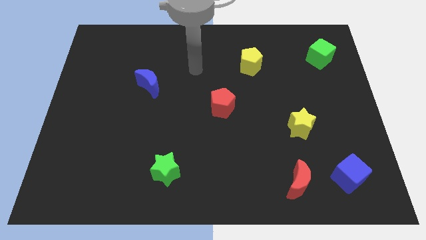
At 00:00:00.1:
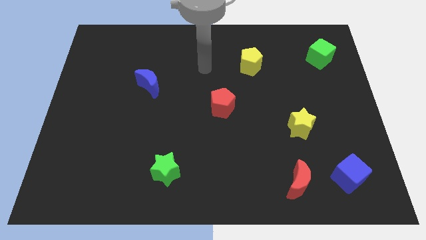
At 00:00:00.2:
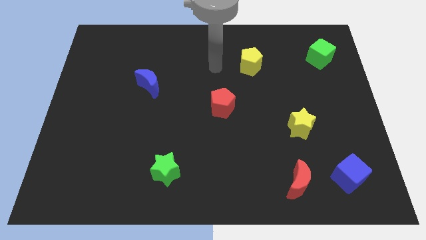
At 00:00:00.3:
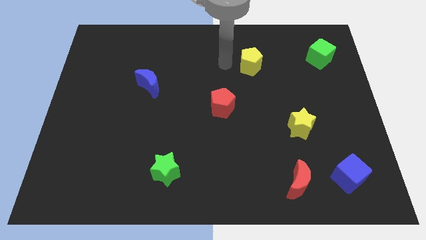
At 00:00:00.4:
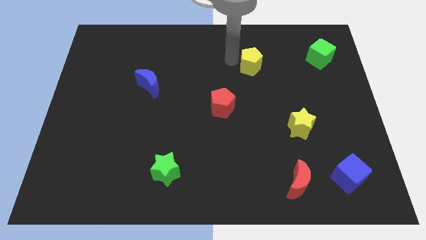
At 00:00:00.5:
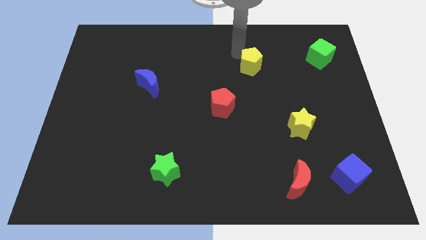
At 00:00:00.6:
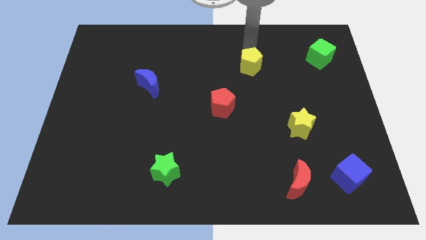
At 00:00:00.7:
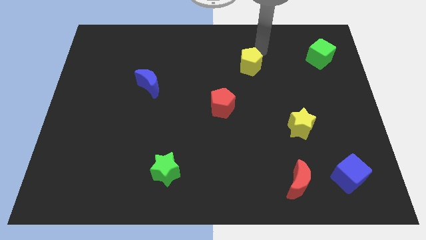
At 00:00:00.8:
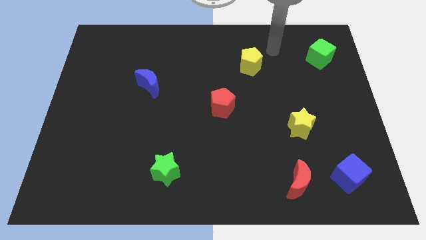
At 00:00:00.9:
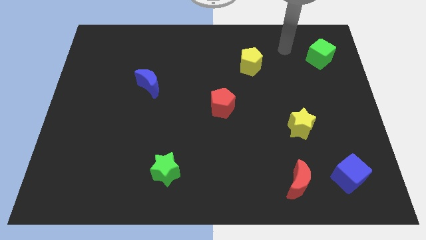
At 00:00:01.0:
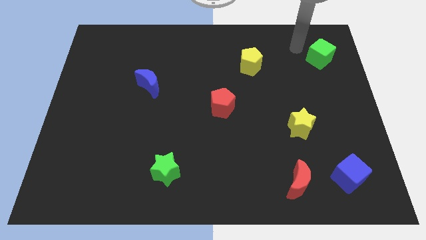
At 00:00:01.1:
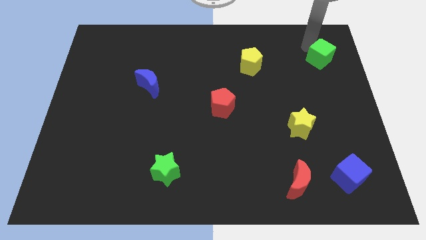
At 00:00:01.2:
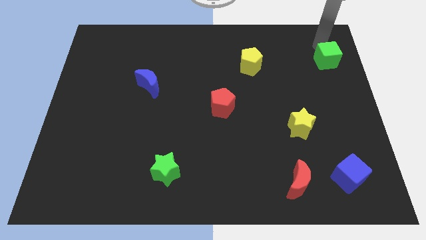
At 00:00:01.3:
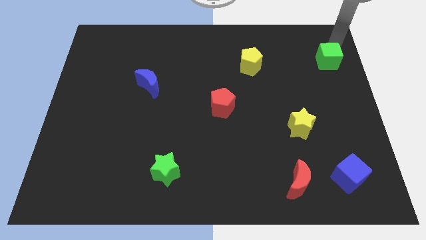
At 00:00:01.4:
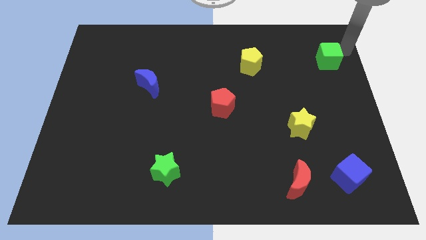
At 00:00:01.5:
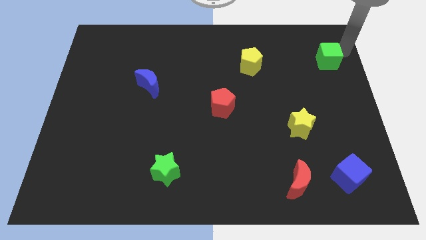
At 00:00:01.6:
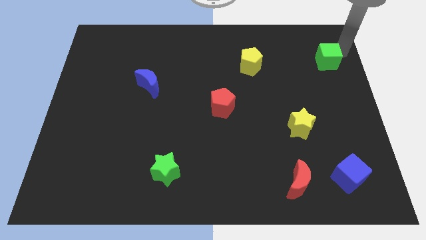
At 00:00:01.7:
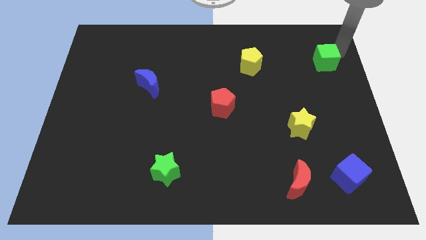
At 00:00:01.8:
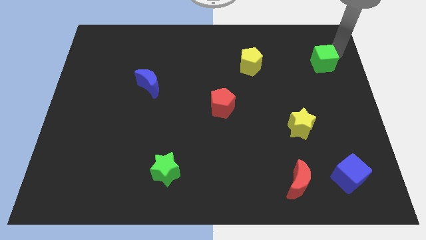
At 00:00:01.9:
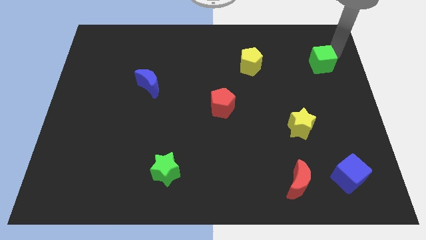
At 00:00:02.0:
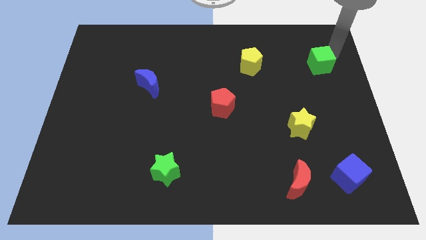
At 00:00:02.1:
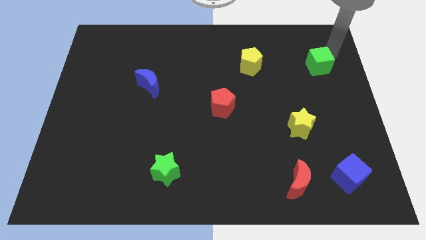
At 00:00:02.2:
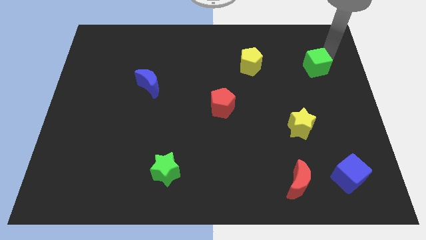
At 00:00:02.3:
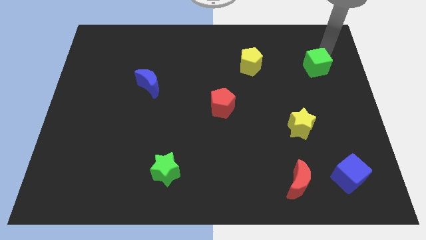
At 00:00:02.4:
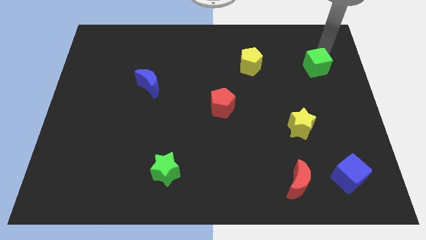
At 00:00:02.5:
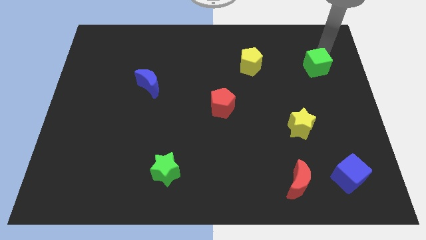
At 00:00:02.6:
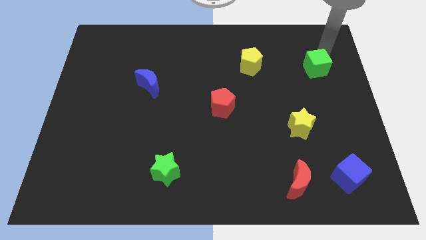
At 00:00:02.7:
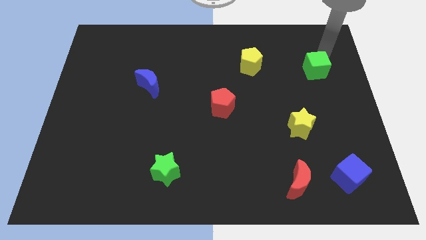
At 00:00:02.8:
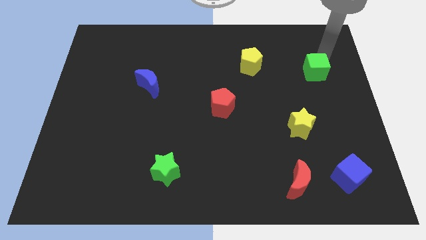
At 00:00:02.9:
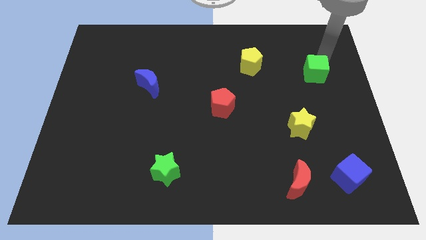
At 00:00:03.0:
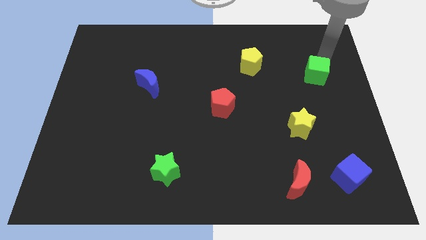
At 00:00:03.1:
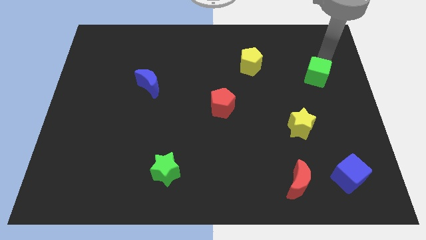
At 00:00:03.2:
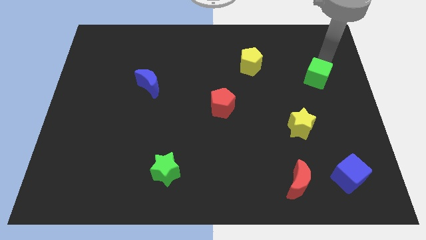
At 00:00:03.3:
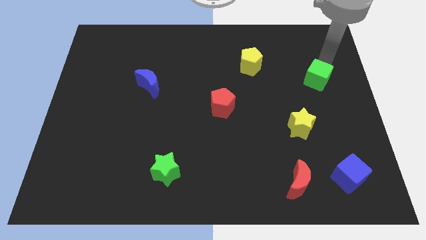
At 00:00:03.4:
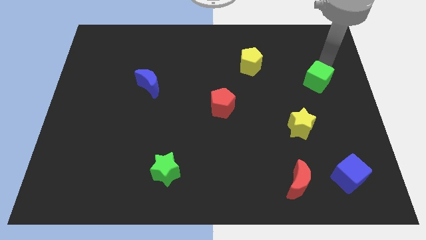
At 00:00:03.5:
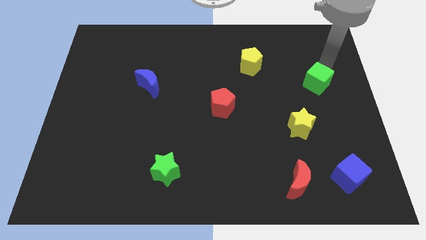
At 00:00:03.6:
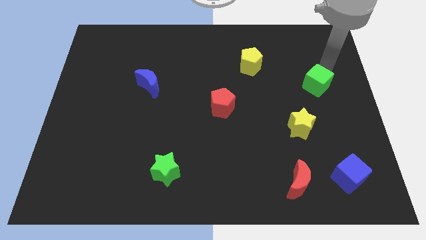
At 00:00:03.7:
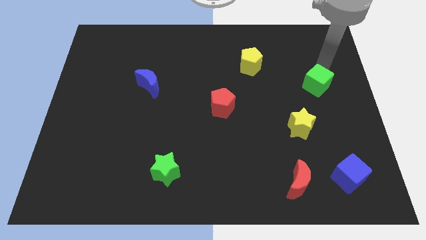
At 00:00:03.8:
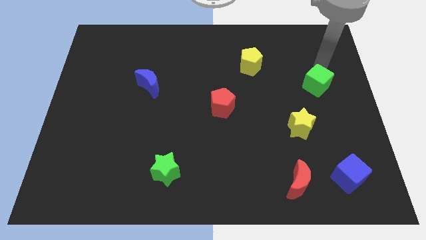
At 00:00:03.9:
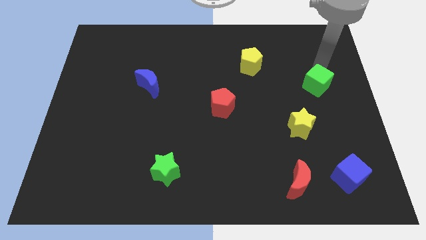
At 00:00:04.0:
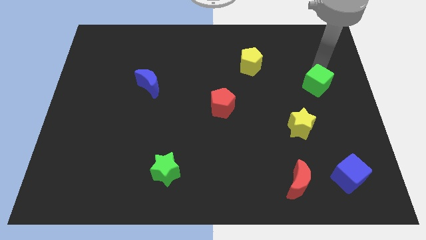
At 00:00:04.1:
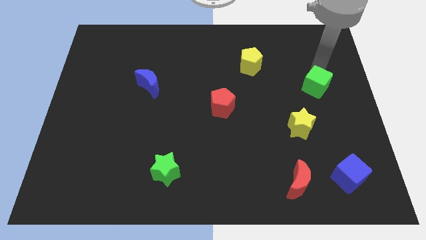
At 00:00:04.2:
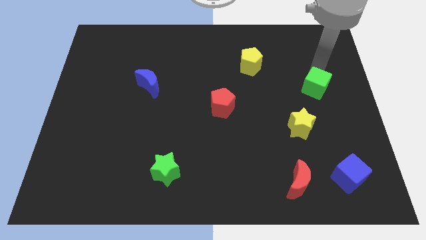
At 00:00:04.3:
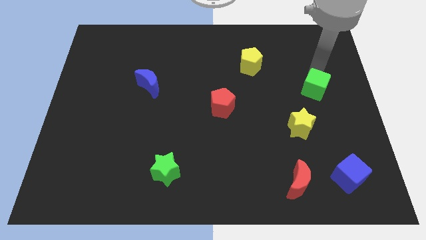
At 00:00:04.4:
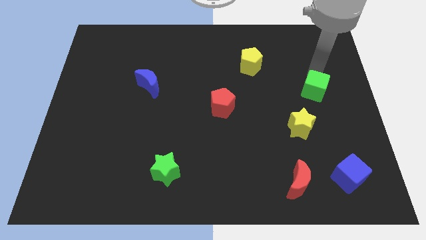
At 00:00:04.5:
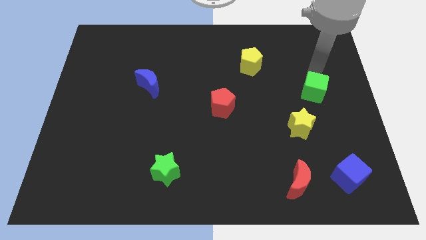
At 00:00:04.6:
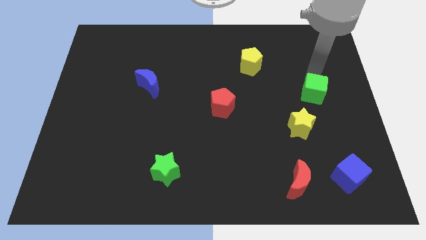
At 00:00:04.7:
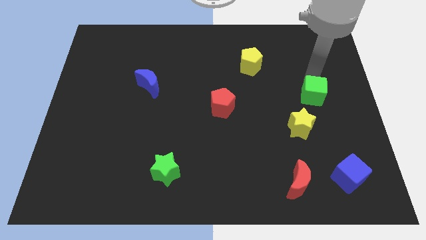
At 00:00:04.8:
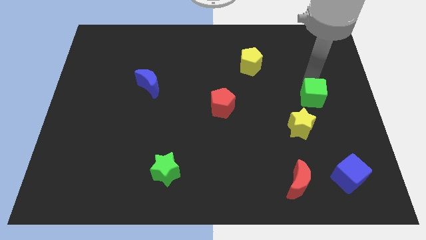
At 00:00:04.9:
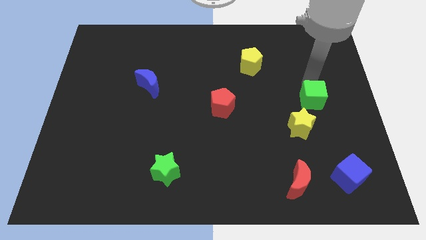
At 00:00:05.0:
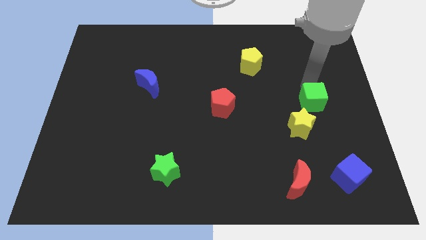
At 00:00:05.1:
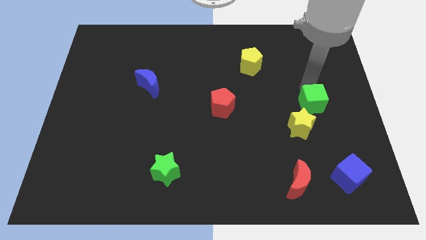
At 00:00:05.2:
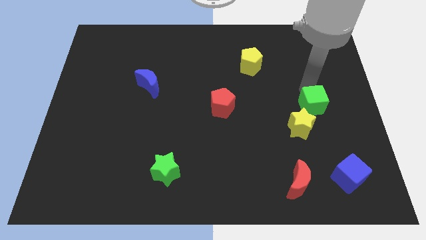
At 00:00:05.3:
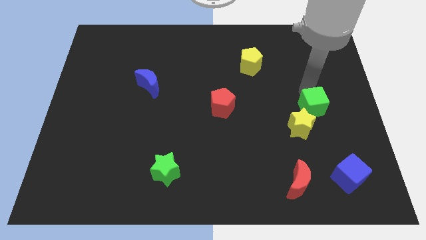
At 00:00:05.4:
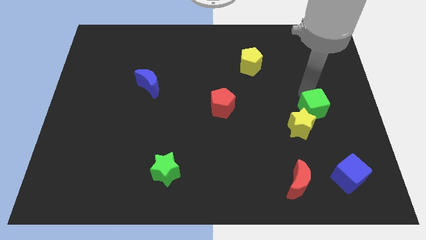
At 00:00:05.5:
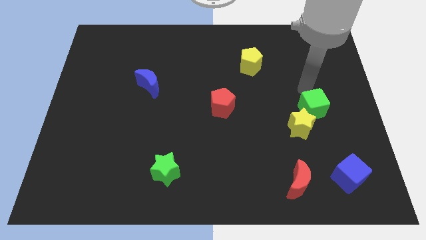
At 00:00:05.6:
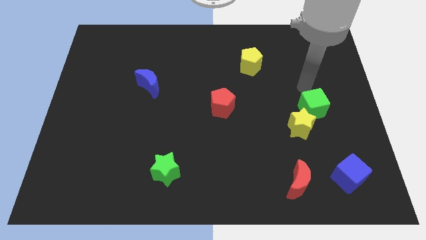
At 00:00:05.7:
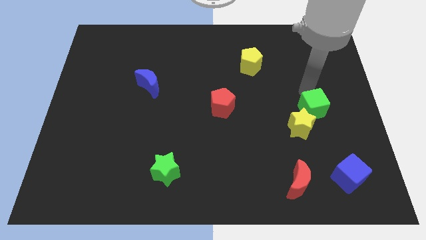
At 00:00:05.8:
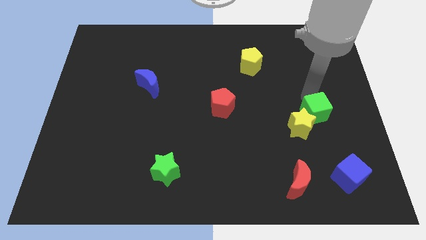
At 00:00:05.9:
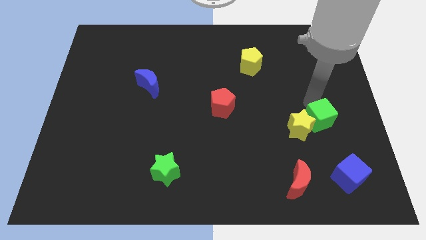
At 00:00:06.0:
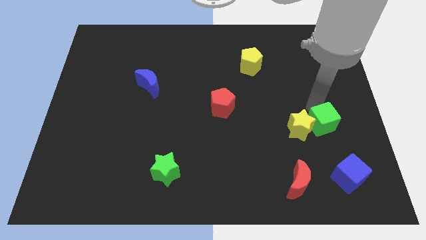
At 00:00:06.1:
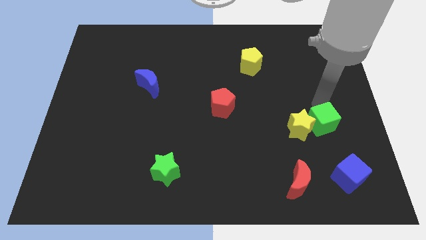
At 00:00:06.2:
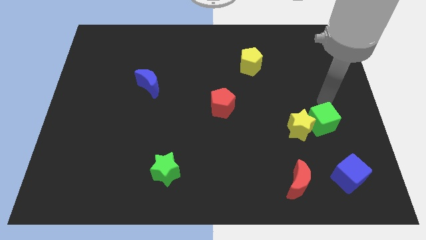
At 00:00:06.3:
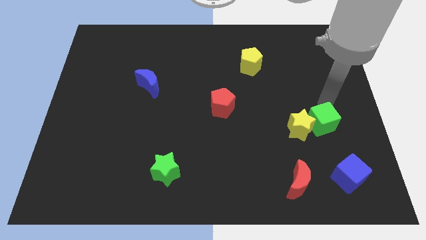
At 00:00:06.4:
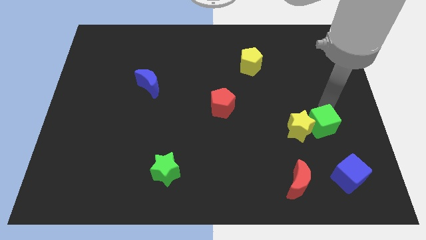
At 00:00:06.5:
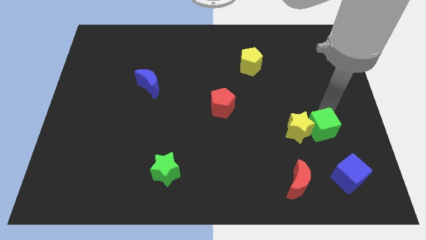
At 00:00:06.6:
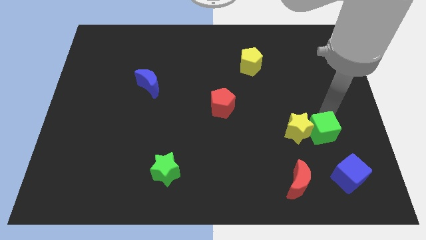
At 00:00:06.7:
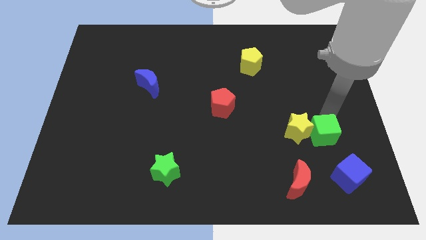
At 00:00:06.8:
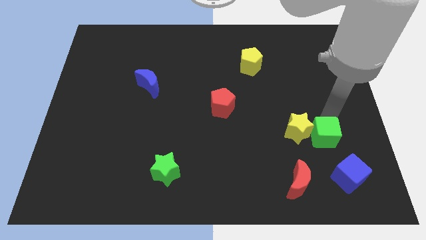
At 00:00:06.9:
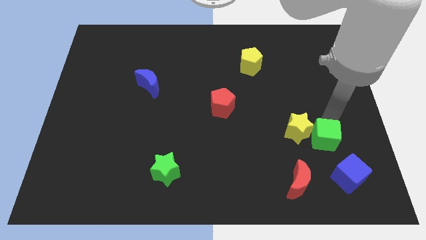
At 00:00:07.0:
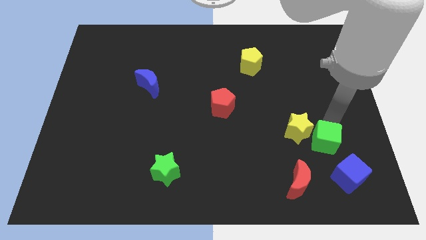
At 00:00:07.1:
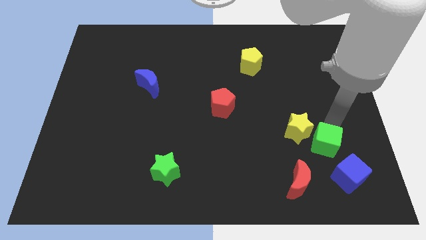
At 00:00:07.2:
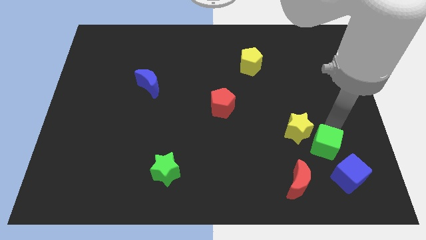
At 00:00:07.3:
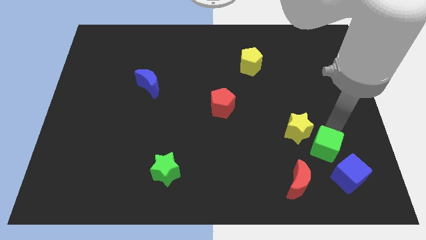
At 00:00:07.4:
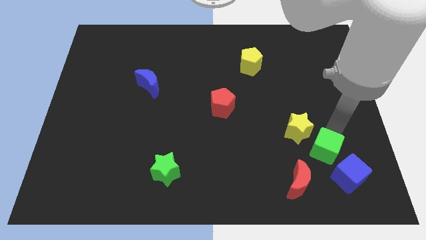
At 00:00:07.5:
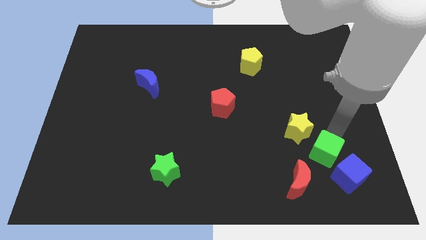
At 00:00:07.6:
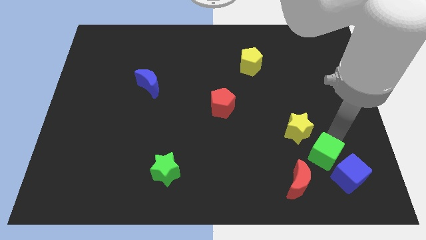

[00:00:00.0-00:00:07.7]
slide the green cube below the yellow star
